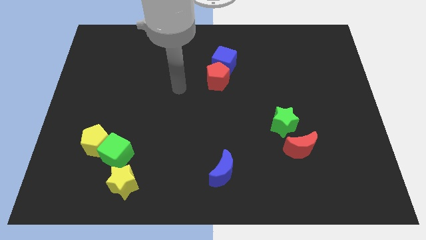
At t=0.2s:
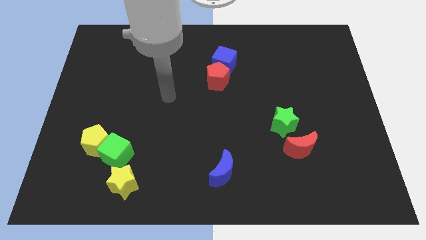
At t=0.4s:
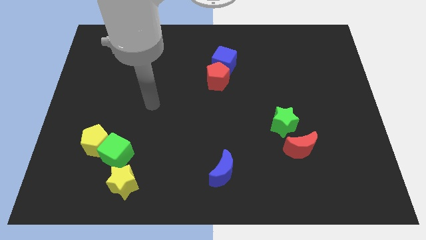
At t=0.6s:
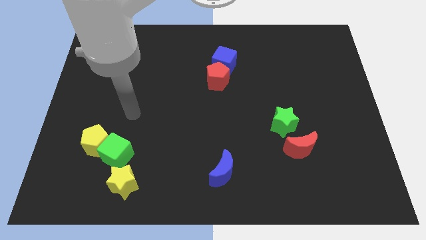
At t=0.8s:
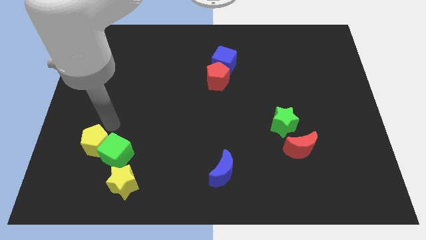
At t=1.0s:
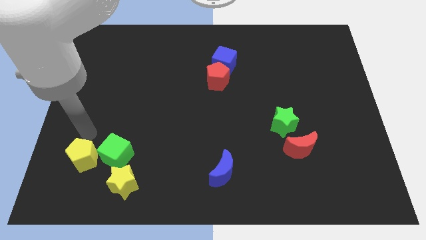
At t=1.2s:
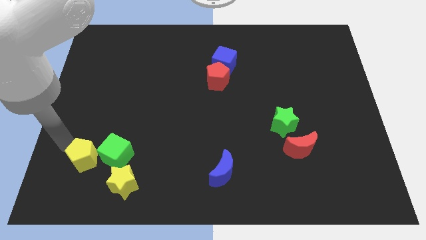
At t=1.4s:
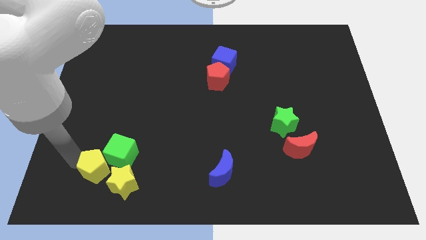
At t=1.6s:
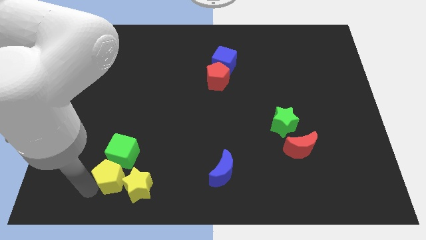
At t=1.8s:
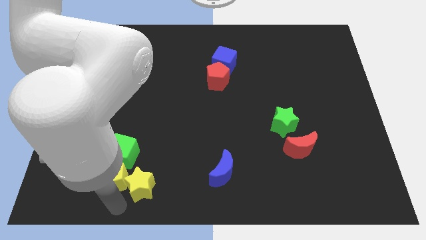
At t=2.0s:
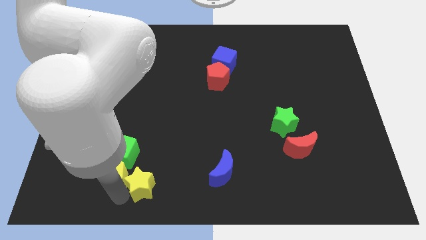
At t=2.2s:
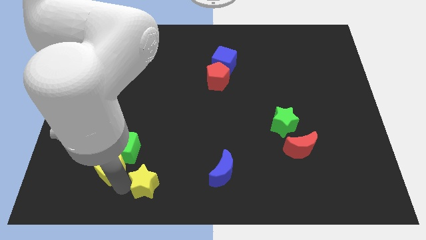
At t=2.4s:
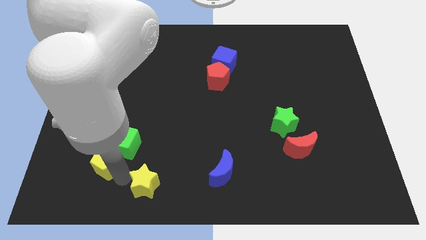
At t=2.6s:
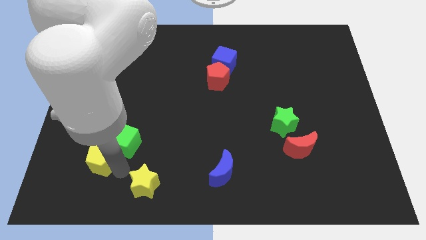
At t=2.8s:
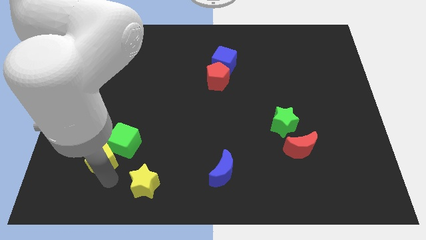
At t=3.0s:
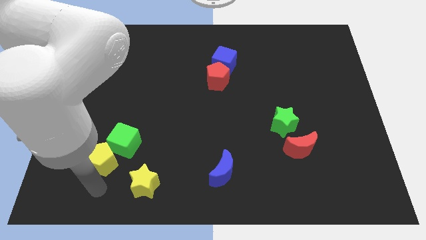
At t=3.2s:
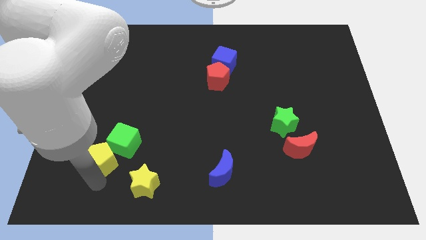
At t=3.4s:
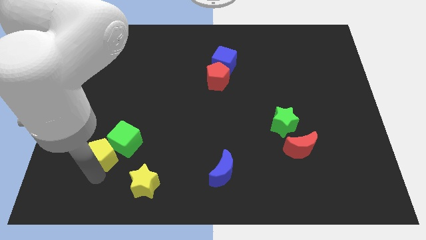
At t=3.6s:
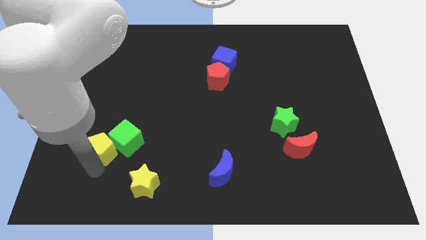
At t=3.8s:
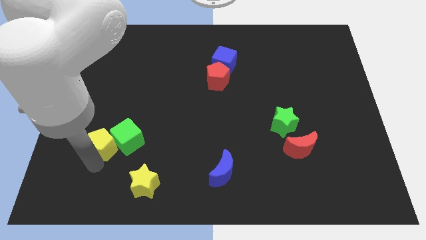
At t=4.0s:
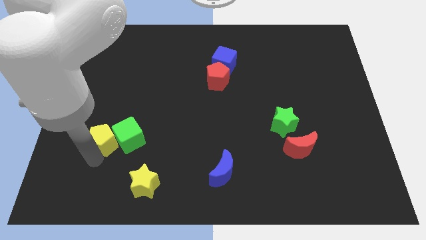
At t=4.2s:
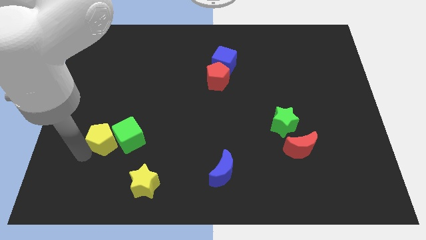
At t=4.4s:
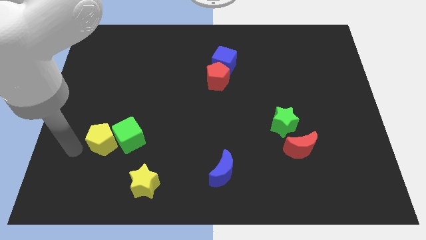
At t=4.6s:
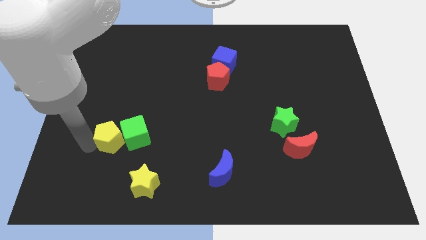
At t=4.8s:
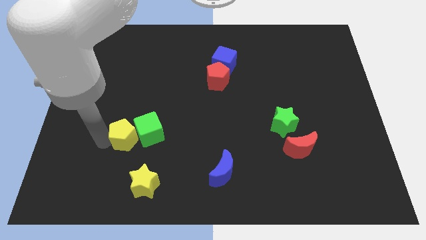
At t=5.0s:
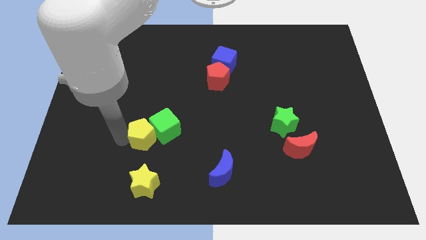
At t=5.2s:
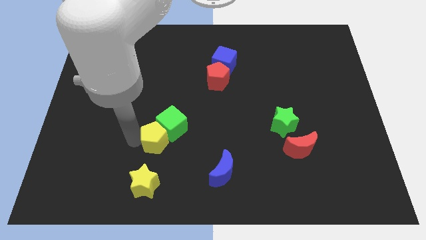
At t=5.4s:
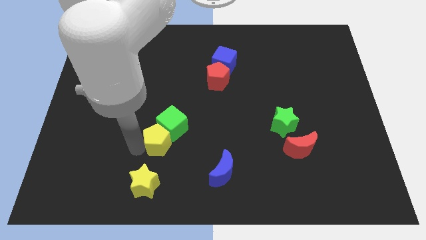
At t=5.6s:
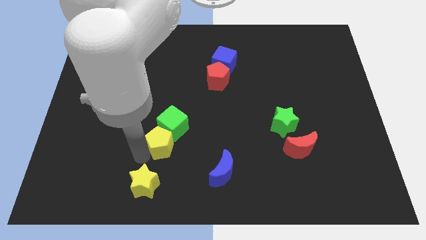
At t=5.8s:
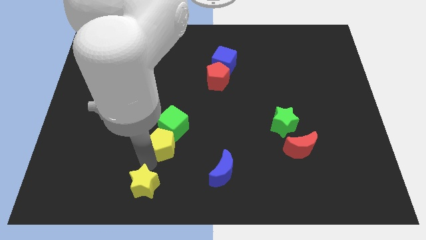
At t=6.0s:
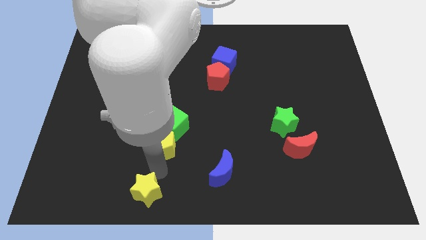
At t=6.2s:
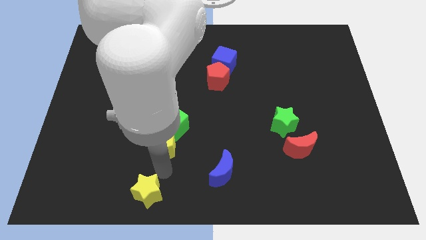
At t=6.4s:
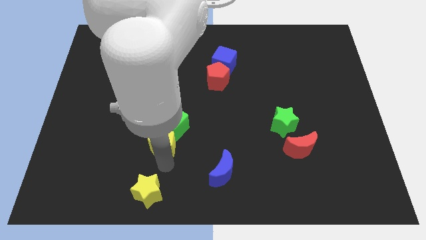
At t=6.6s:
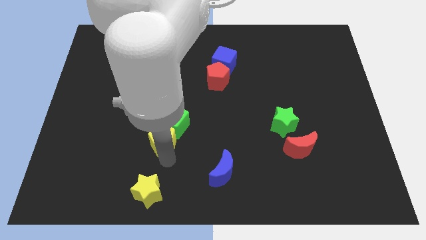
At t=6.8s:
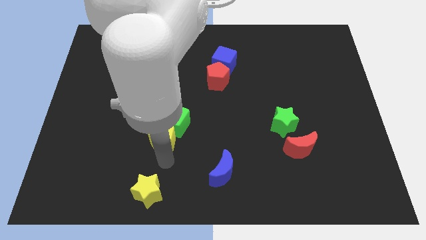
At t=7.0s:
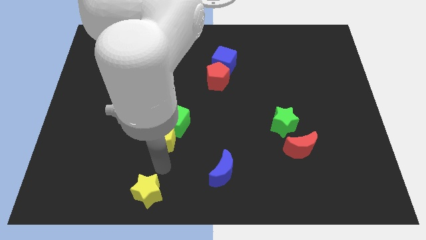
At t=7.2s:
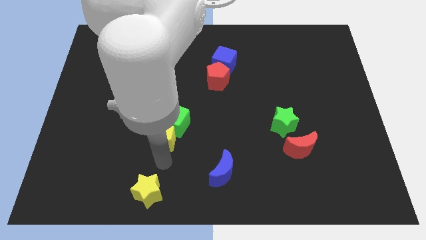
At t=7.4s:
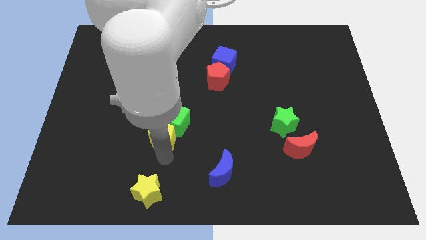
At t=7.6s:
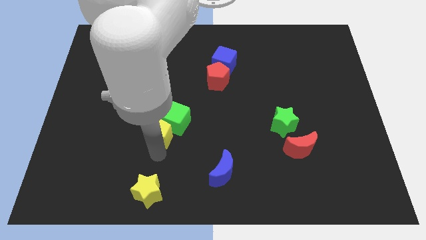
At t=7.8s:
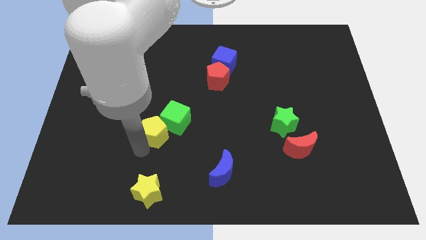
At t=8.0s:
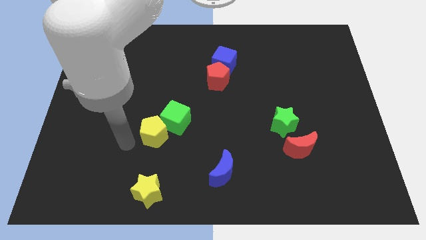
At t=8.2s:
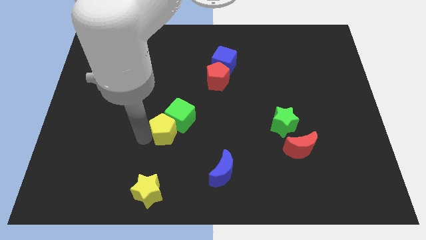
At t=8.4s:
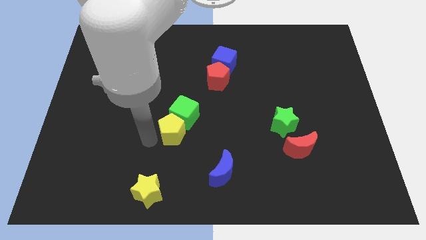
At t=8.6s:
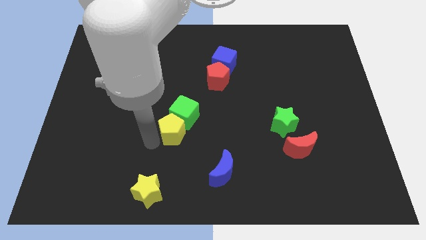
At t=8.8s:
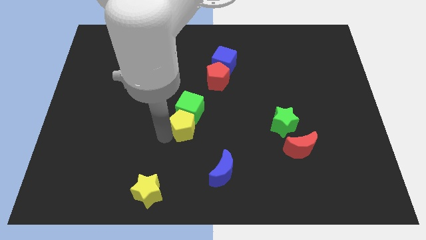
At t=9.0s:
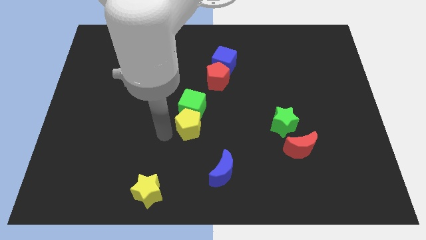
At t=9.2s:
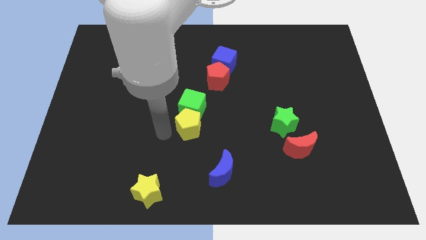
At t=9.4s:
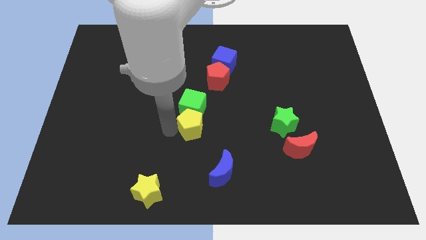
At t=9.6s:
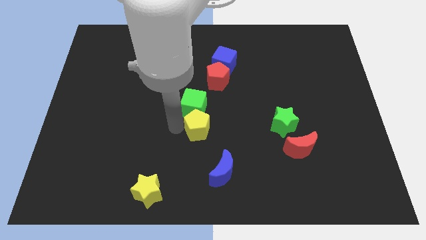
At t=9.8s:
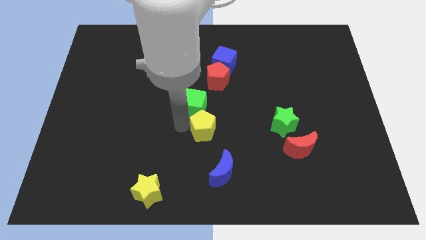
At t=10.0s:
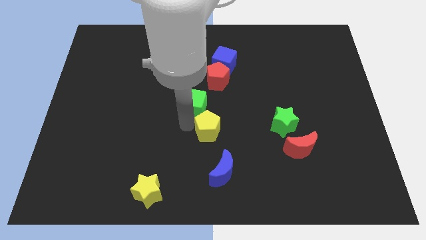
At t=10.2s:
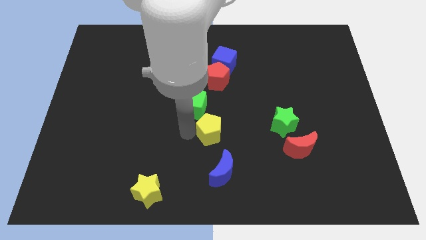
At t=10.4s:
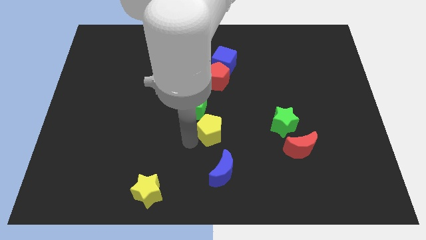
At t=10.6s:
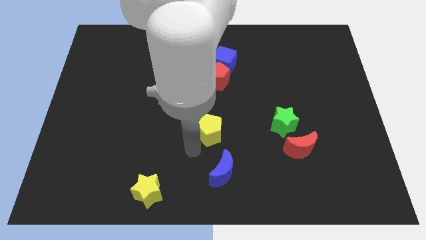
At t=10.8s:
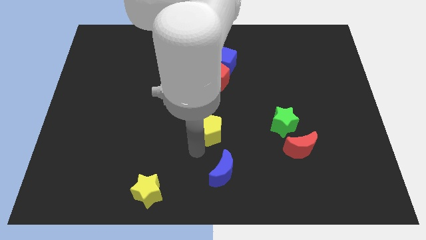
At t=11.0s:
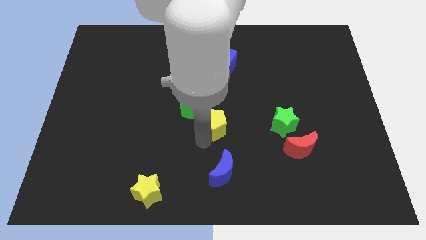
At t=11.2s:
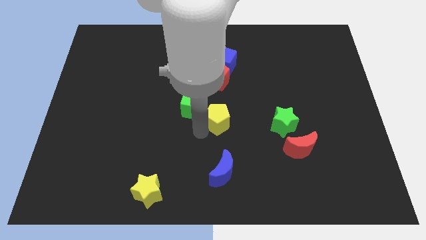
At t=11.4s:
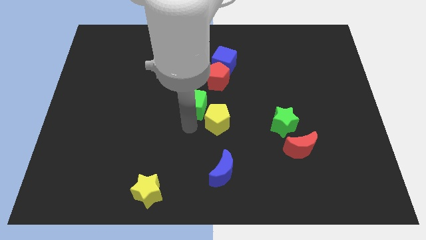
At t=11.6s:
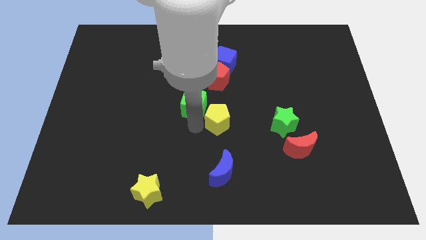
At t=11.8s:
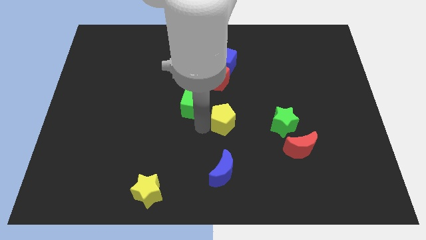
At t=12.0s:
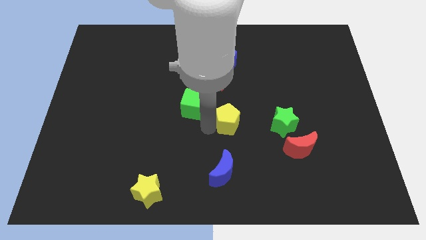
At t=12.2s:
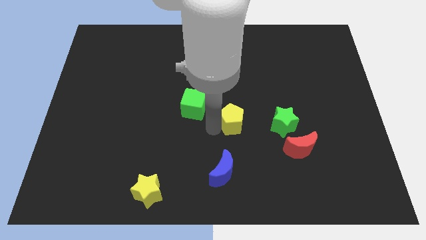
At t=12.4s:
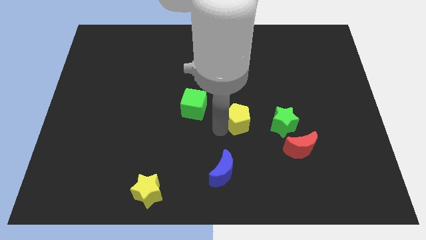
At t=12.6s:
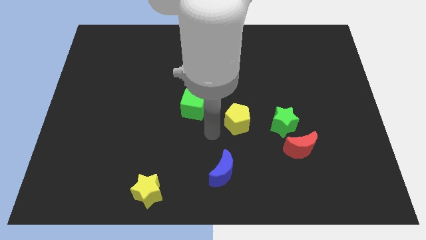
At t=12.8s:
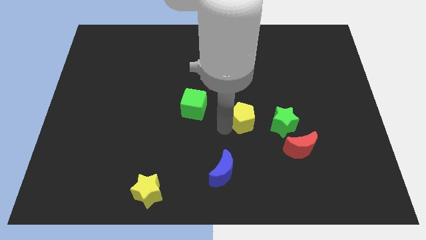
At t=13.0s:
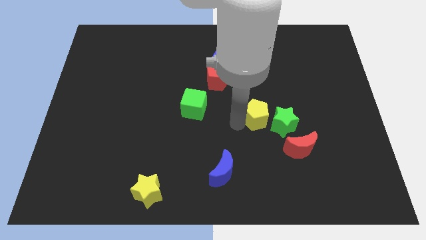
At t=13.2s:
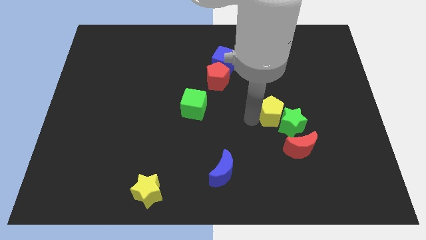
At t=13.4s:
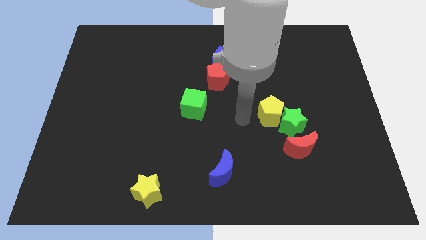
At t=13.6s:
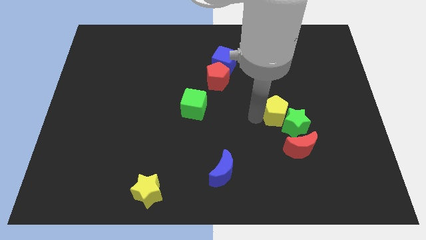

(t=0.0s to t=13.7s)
slide the yellow pentagon to the top side of the red moon
